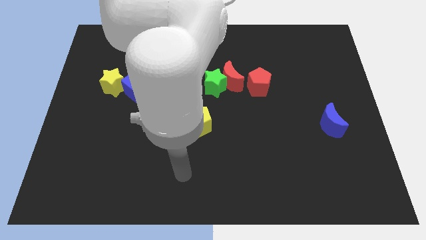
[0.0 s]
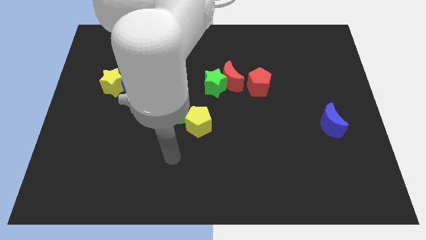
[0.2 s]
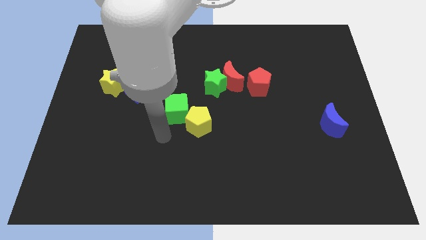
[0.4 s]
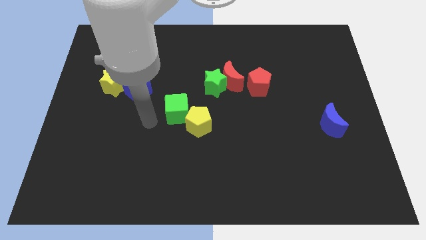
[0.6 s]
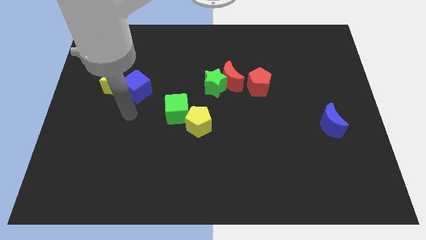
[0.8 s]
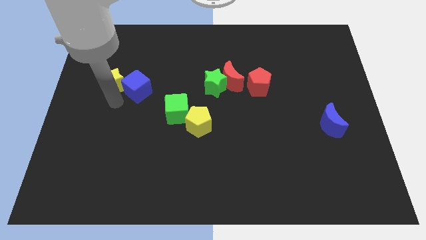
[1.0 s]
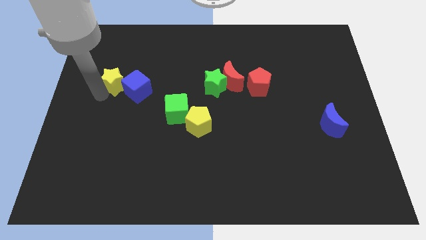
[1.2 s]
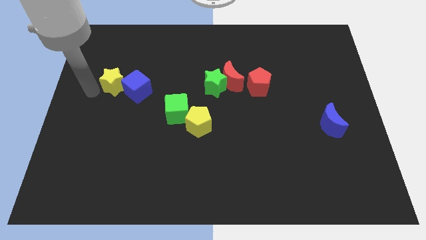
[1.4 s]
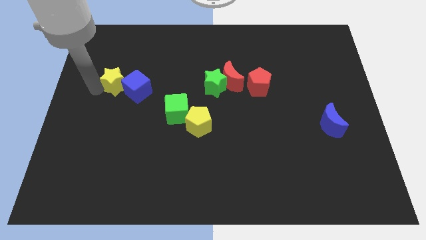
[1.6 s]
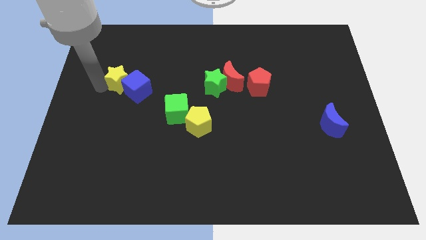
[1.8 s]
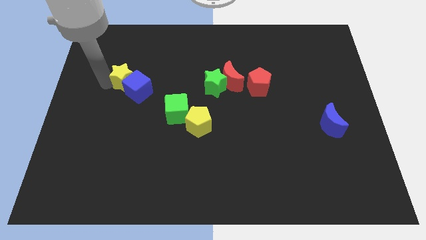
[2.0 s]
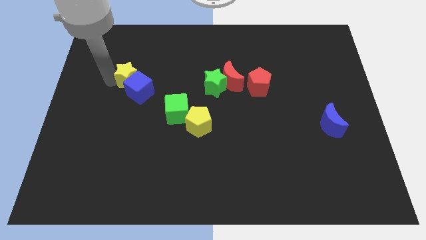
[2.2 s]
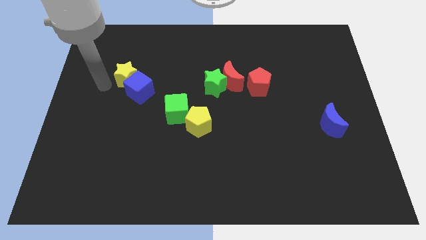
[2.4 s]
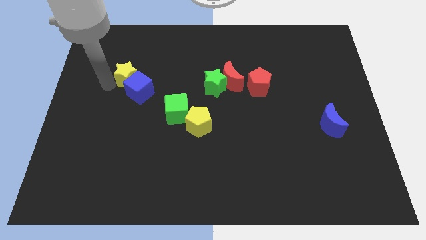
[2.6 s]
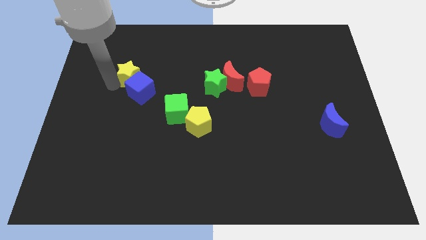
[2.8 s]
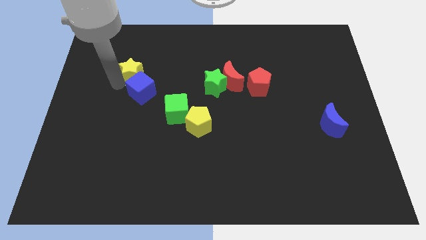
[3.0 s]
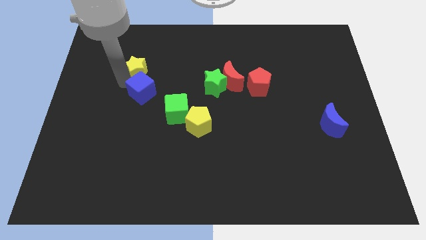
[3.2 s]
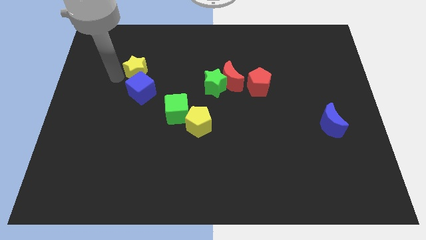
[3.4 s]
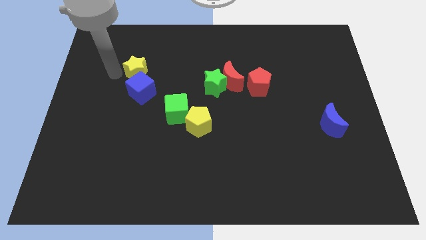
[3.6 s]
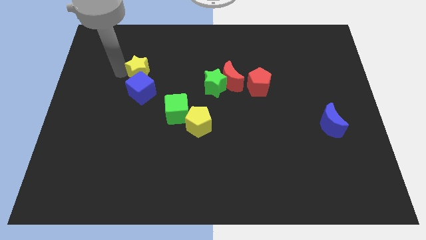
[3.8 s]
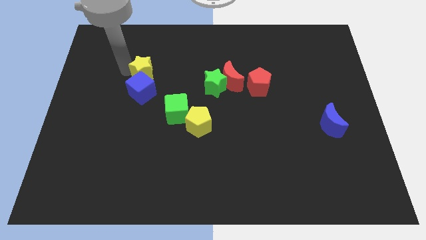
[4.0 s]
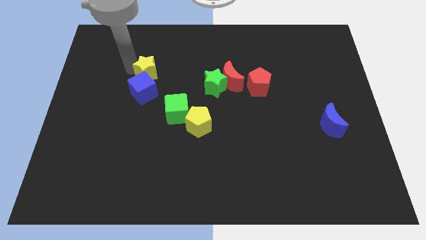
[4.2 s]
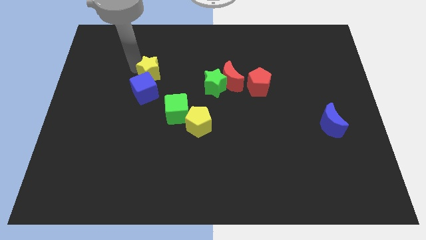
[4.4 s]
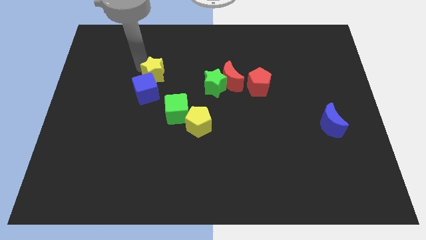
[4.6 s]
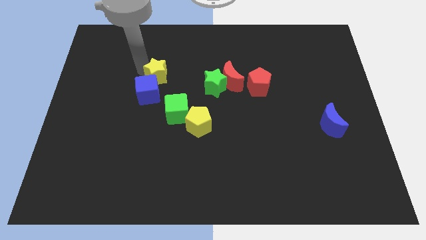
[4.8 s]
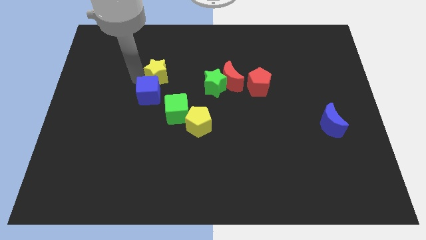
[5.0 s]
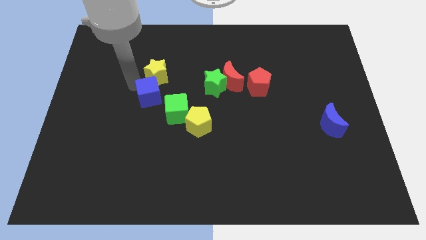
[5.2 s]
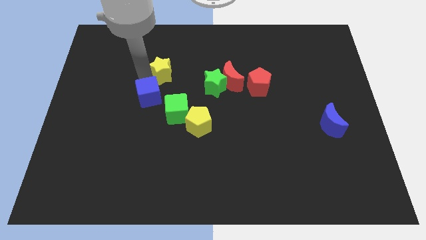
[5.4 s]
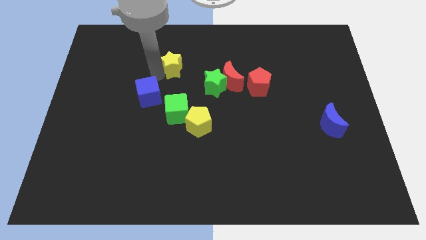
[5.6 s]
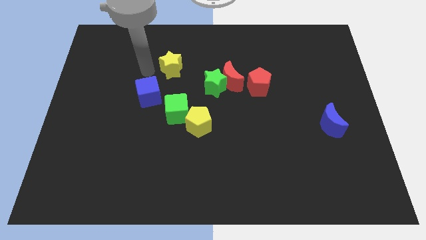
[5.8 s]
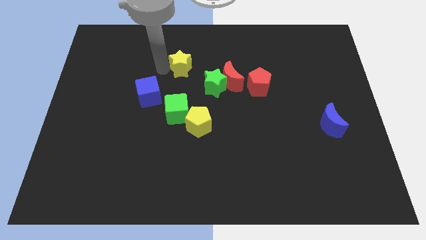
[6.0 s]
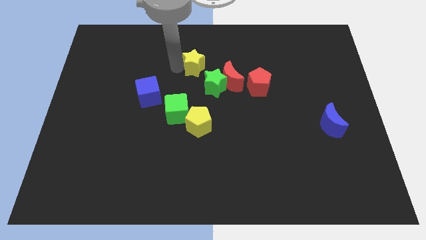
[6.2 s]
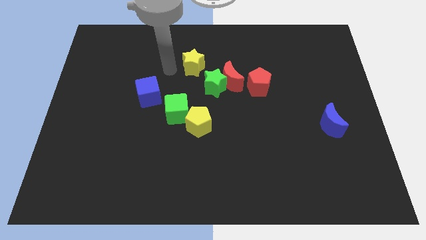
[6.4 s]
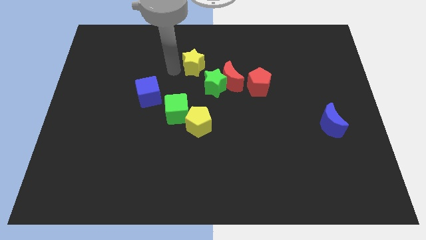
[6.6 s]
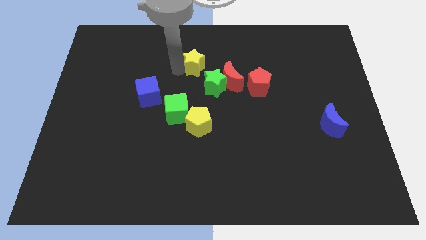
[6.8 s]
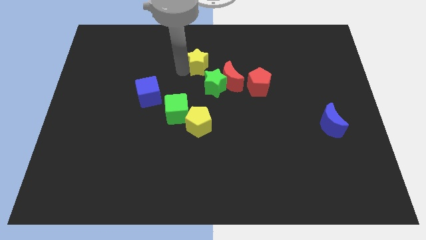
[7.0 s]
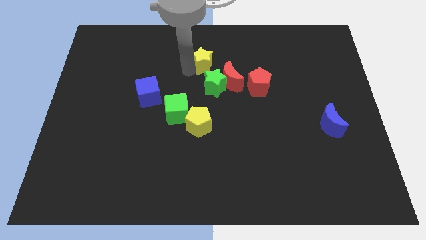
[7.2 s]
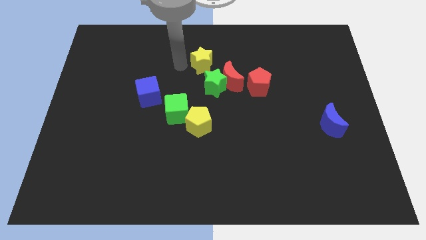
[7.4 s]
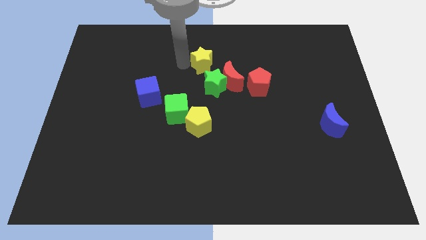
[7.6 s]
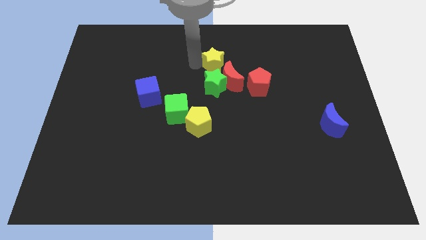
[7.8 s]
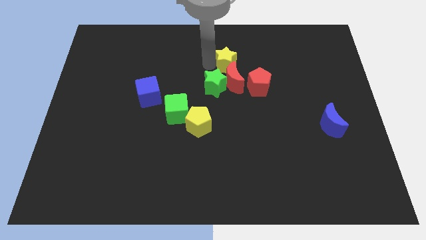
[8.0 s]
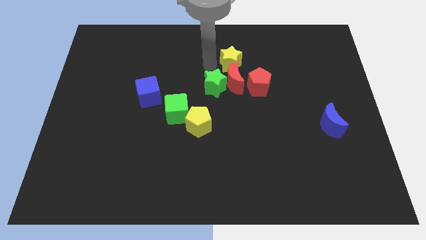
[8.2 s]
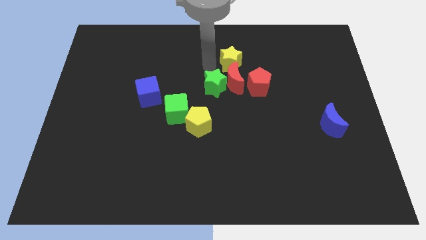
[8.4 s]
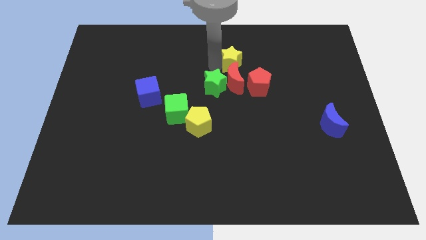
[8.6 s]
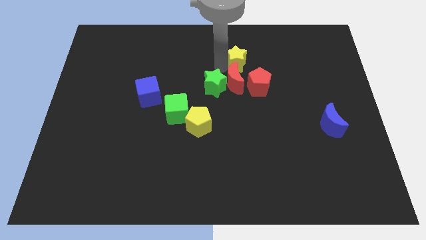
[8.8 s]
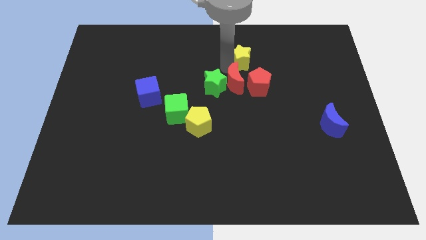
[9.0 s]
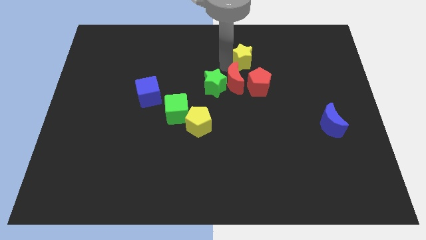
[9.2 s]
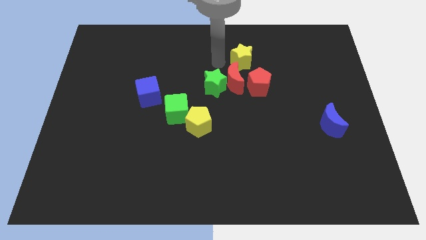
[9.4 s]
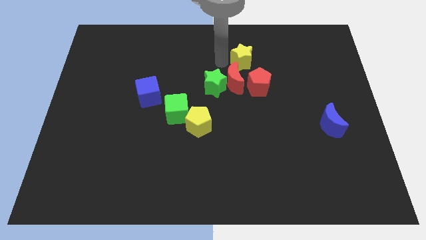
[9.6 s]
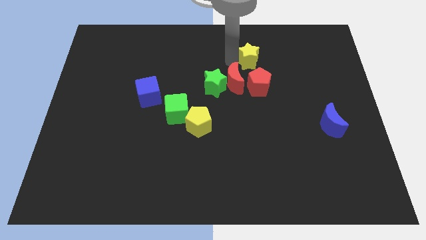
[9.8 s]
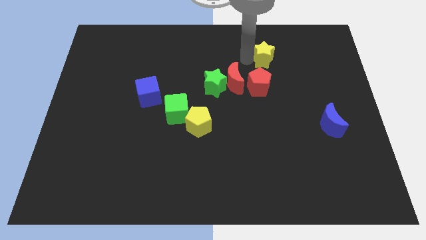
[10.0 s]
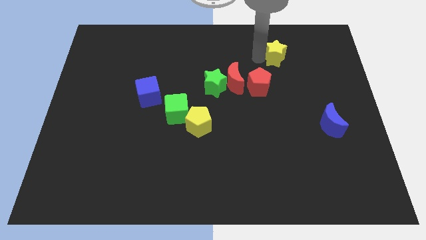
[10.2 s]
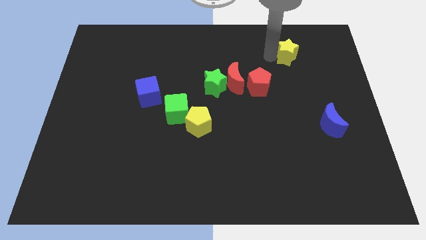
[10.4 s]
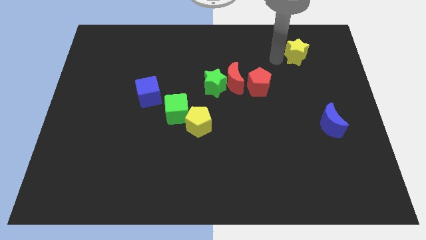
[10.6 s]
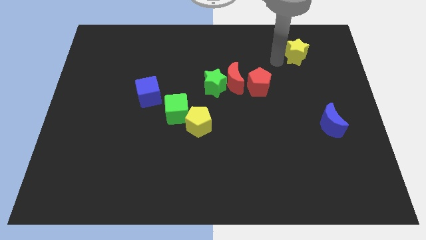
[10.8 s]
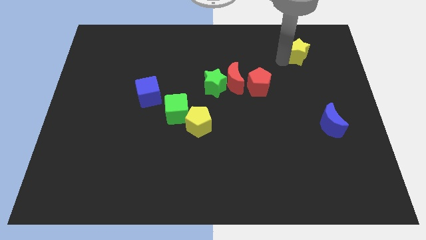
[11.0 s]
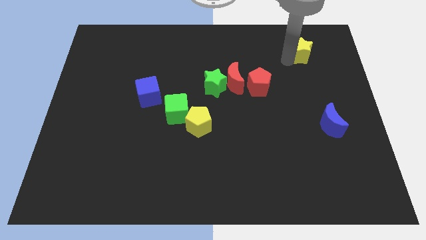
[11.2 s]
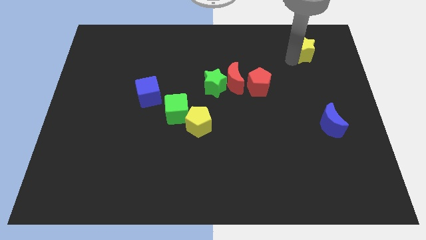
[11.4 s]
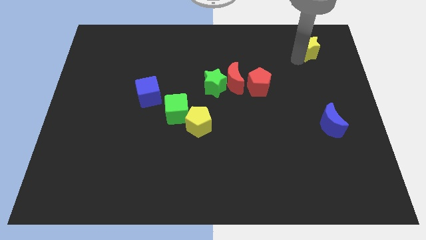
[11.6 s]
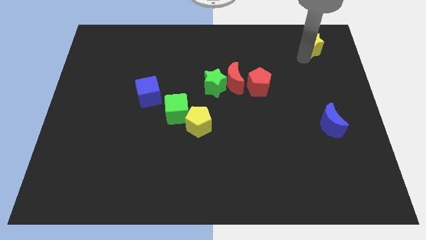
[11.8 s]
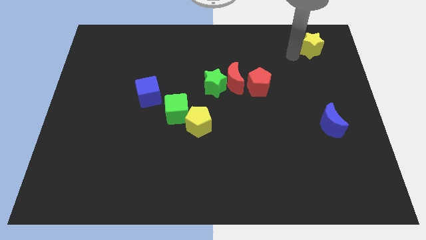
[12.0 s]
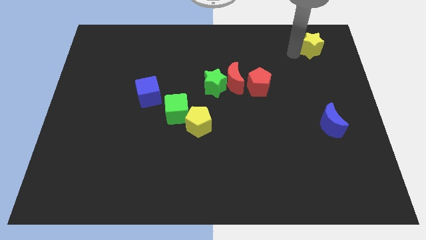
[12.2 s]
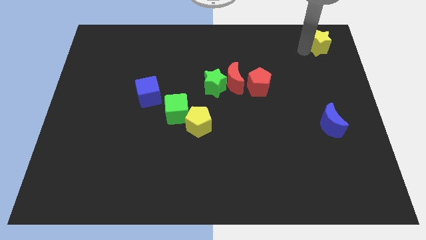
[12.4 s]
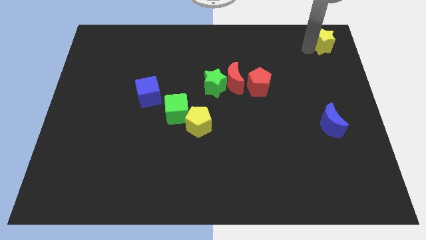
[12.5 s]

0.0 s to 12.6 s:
put the yellow star to the top right
